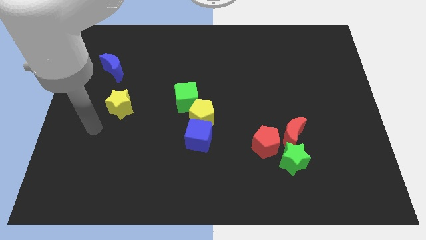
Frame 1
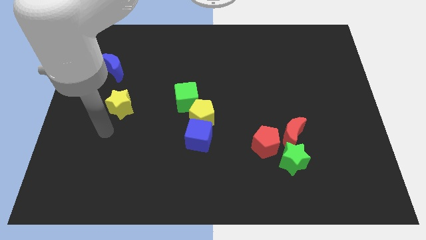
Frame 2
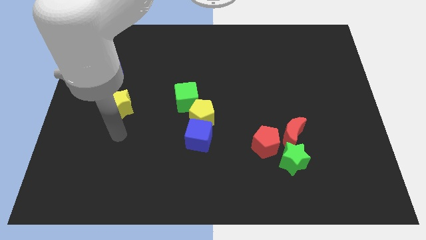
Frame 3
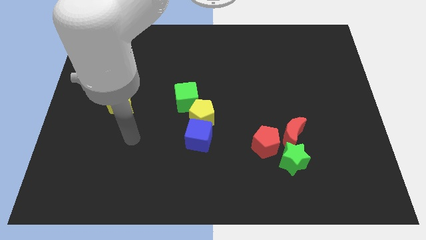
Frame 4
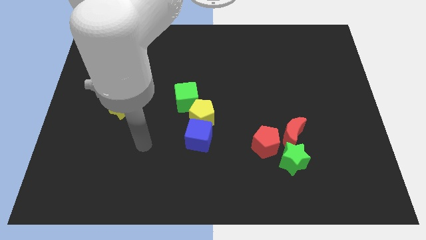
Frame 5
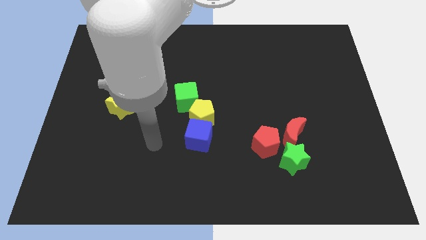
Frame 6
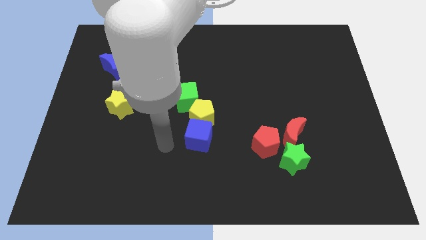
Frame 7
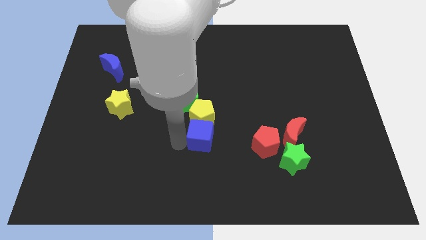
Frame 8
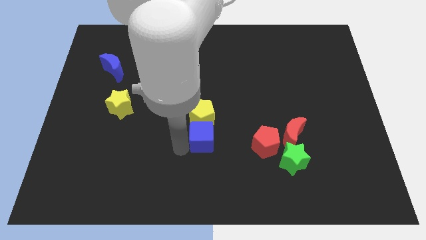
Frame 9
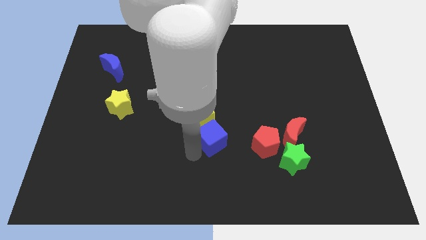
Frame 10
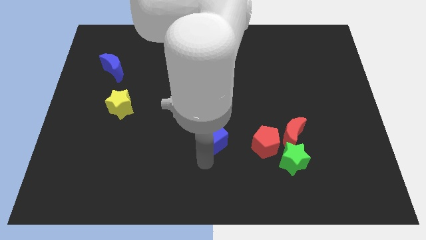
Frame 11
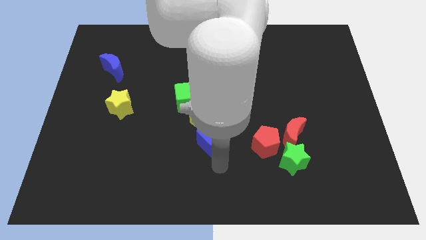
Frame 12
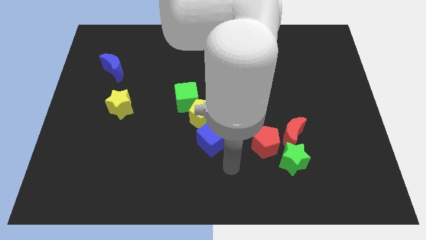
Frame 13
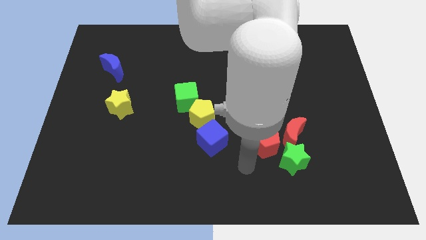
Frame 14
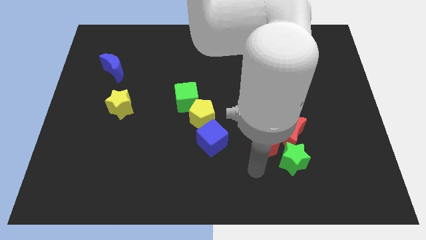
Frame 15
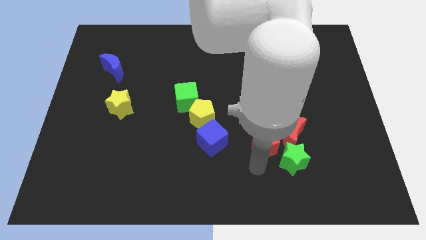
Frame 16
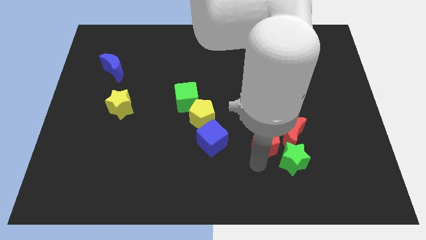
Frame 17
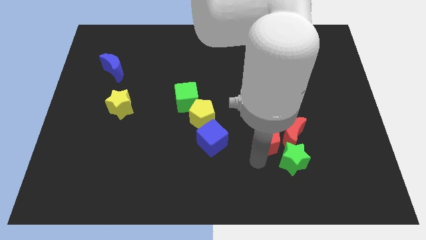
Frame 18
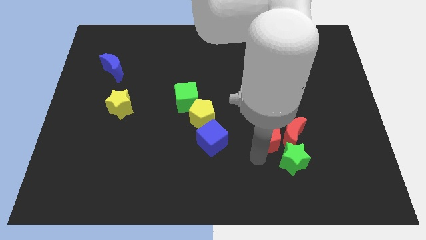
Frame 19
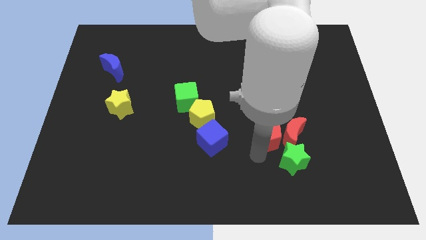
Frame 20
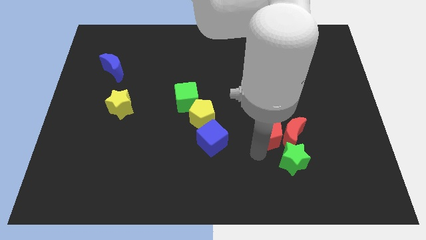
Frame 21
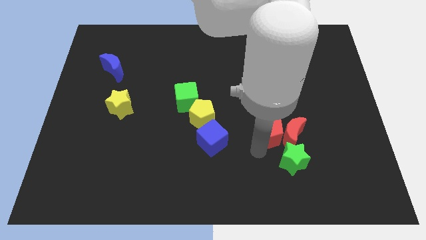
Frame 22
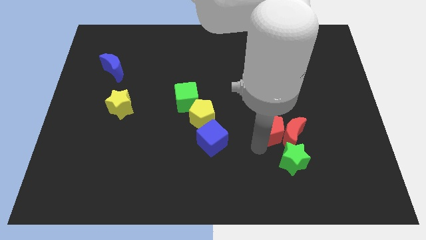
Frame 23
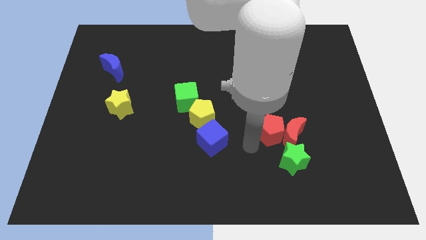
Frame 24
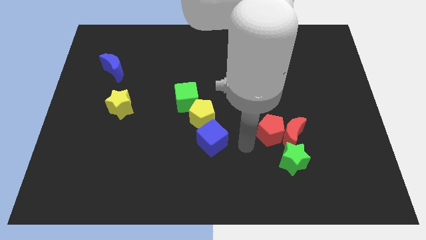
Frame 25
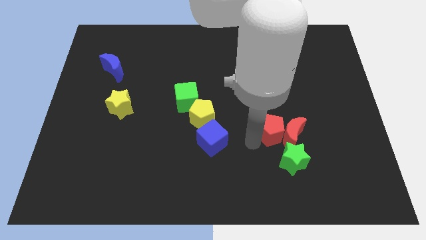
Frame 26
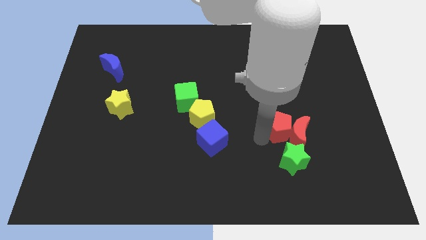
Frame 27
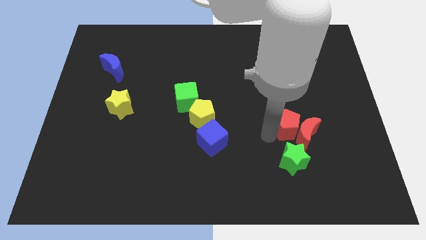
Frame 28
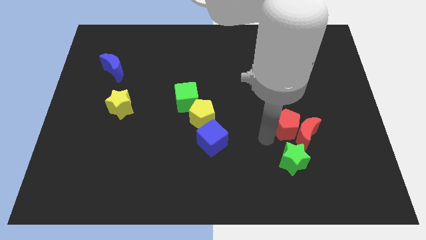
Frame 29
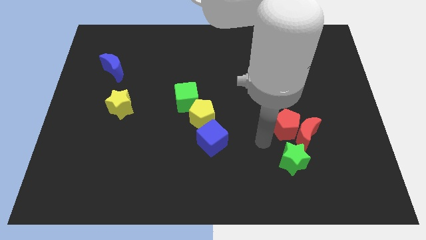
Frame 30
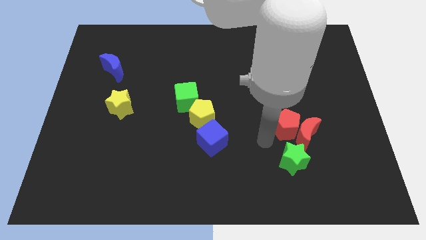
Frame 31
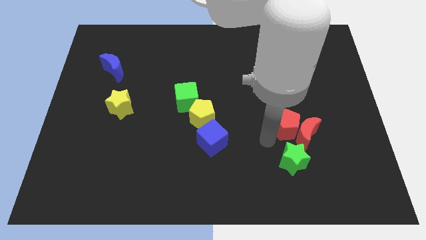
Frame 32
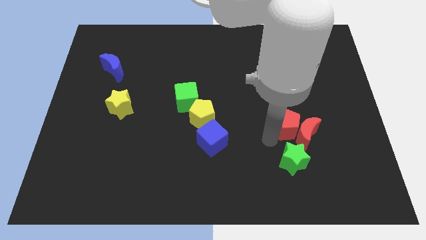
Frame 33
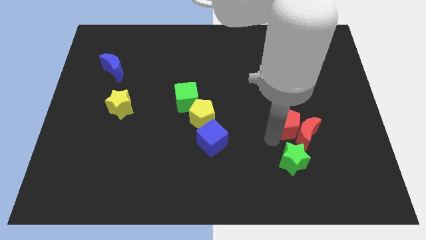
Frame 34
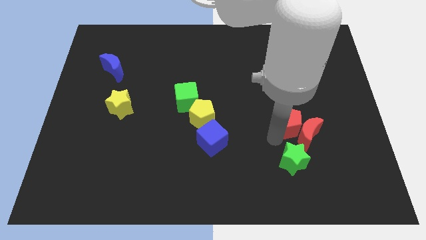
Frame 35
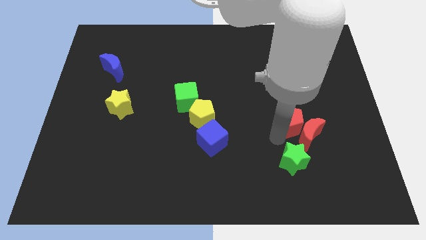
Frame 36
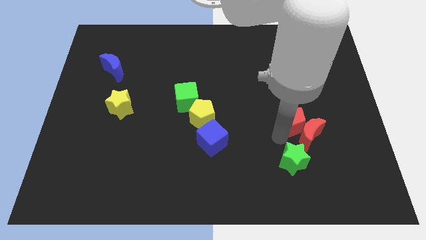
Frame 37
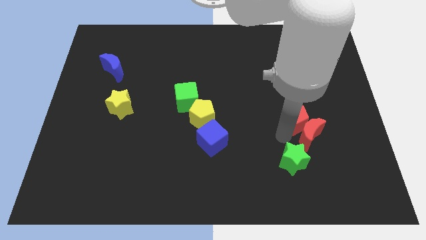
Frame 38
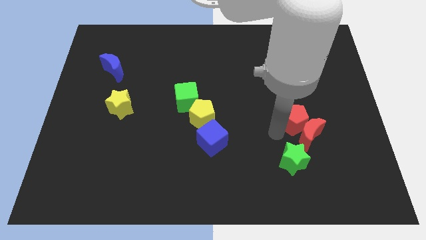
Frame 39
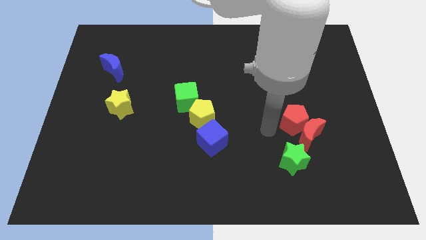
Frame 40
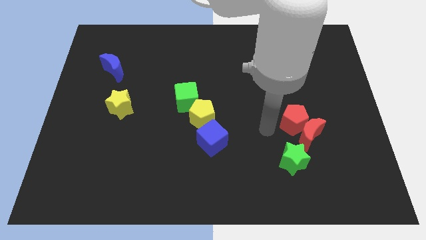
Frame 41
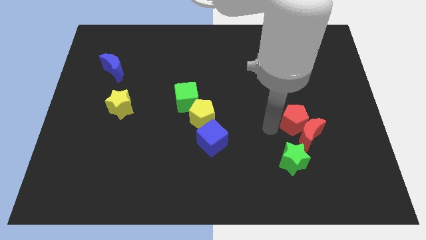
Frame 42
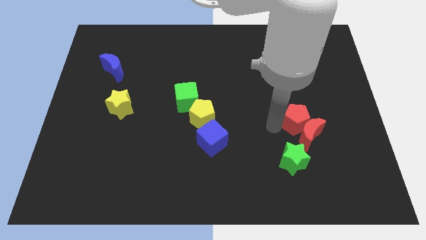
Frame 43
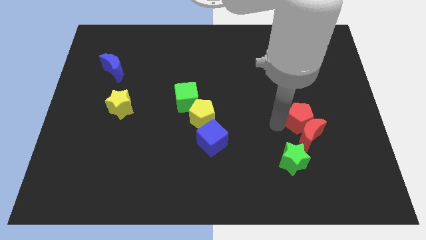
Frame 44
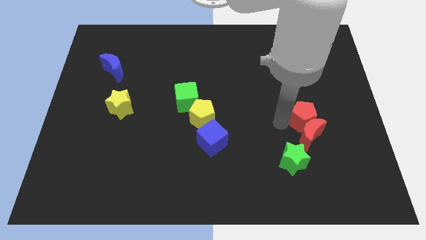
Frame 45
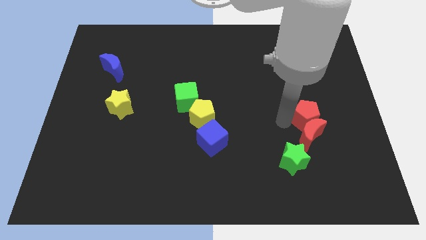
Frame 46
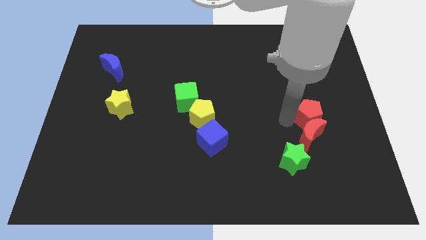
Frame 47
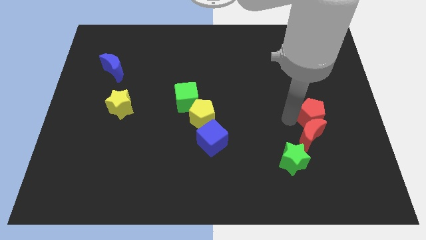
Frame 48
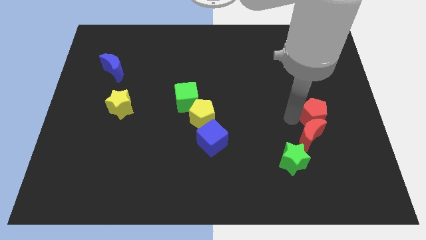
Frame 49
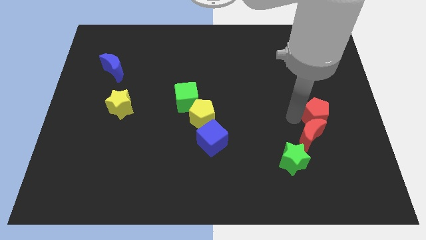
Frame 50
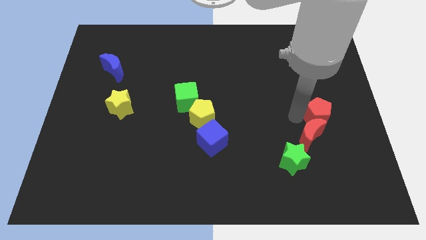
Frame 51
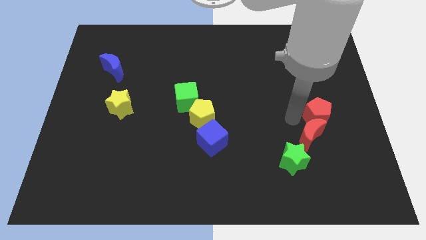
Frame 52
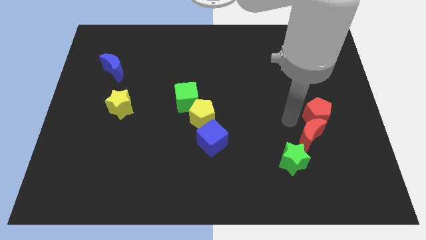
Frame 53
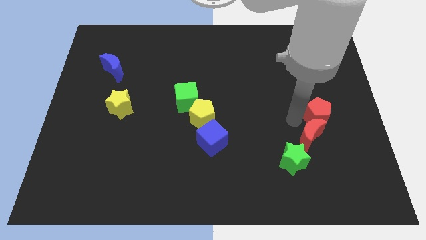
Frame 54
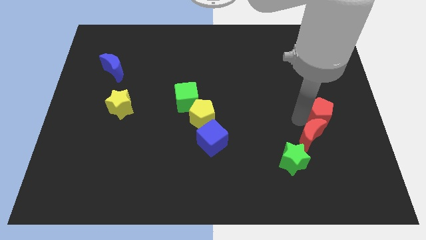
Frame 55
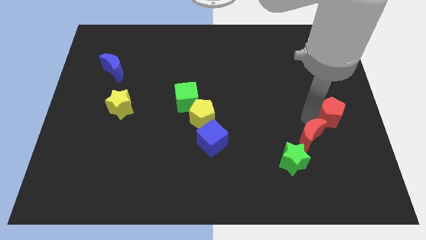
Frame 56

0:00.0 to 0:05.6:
move the red pentagon to the right side of the board

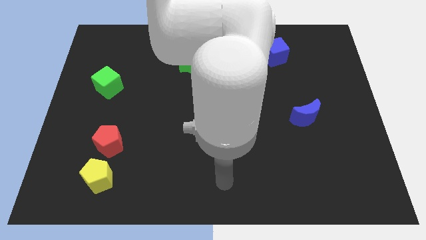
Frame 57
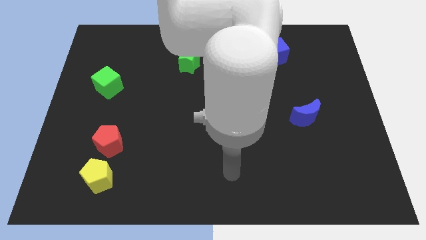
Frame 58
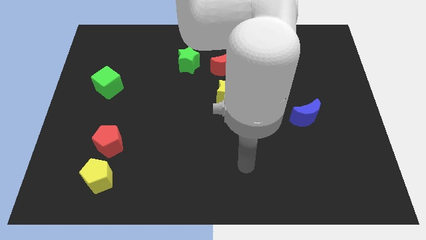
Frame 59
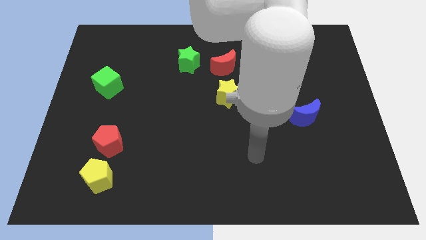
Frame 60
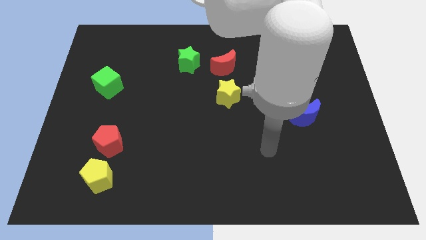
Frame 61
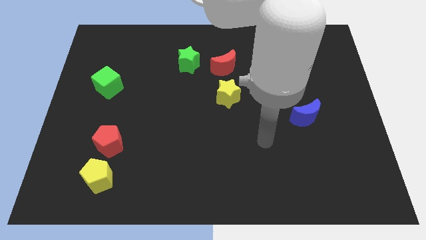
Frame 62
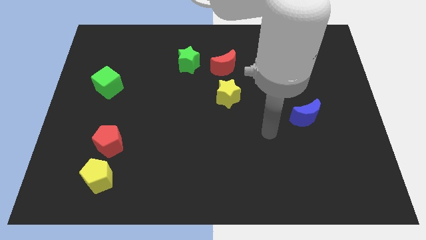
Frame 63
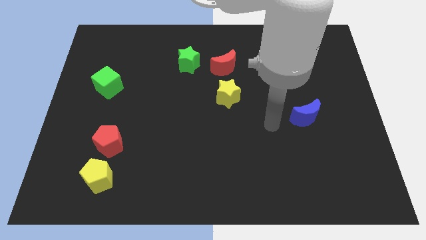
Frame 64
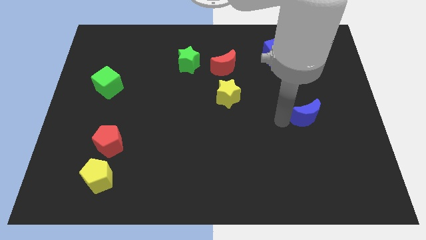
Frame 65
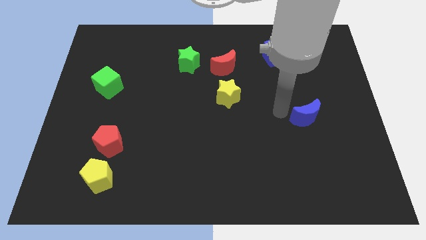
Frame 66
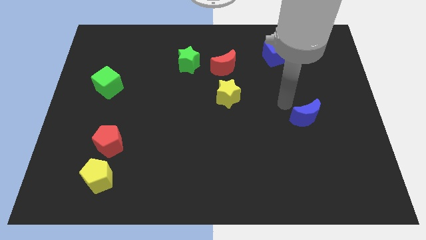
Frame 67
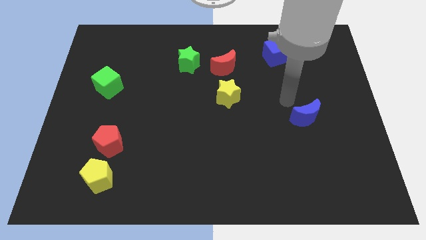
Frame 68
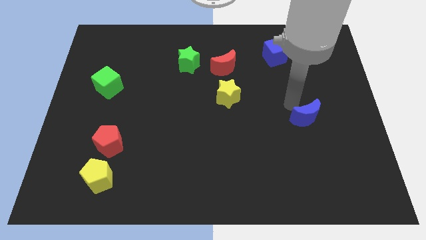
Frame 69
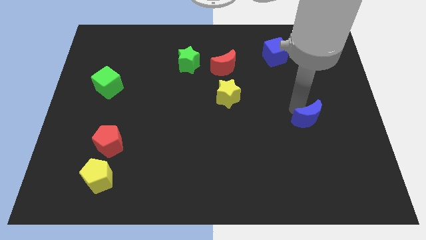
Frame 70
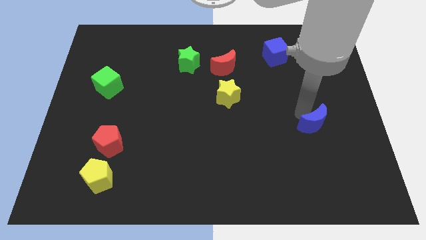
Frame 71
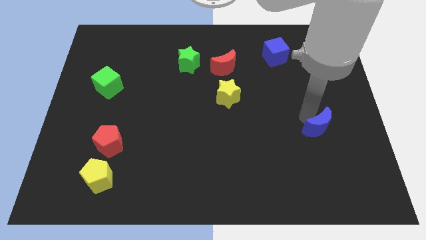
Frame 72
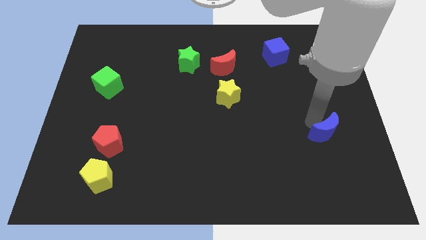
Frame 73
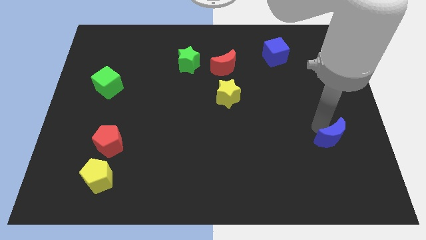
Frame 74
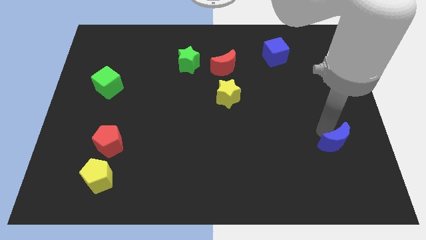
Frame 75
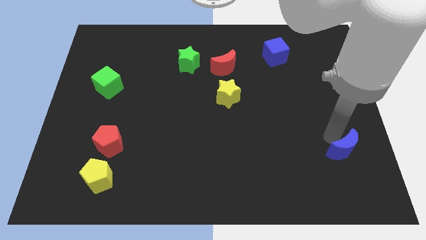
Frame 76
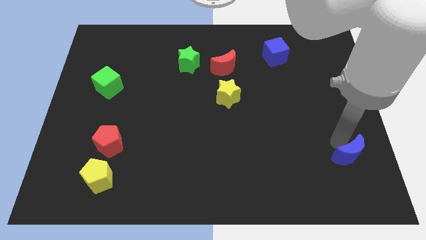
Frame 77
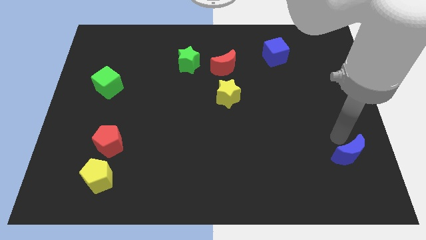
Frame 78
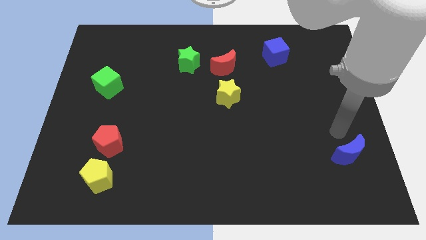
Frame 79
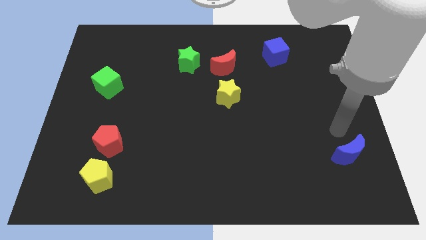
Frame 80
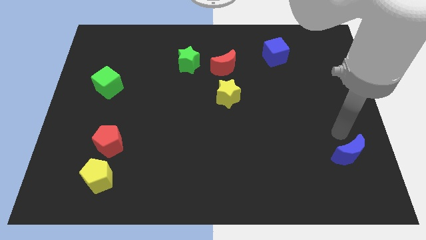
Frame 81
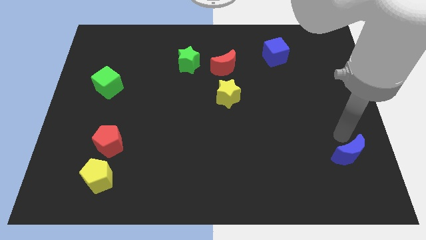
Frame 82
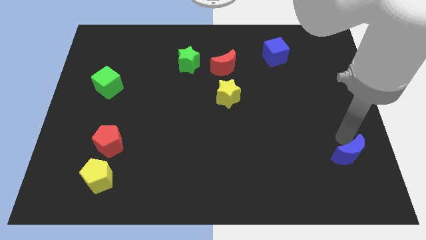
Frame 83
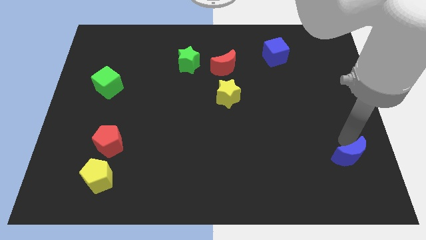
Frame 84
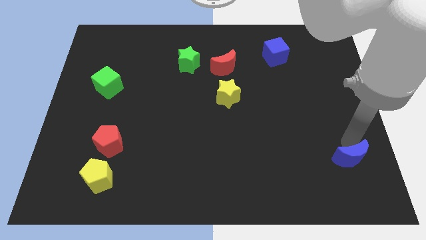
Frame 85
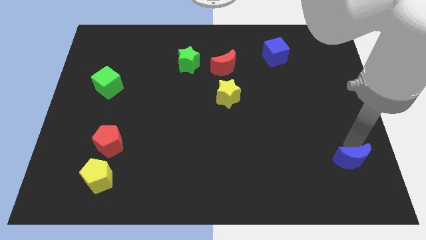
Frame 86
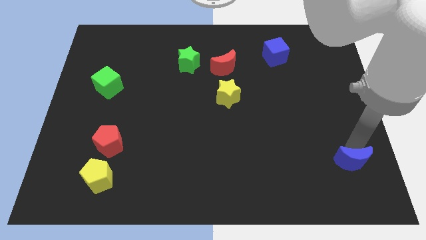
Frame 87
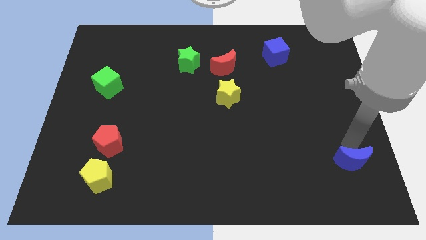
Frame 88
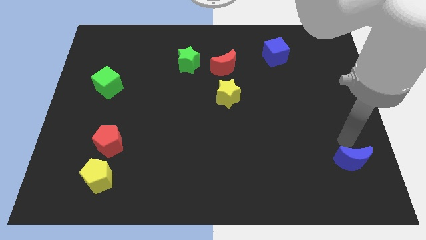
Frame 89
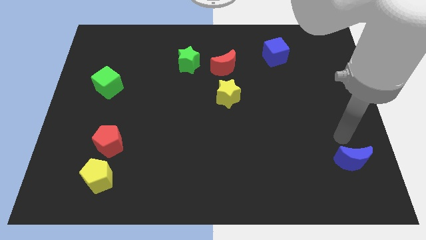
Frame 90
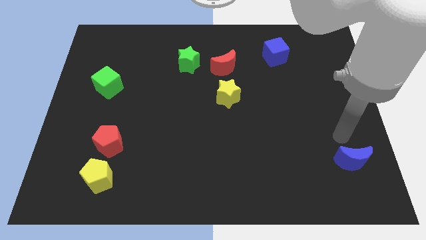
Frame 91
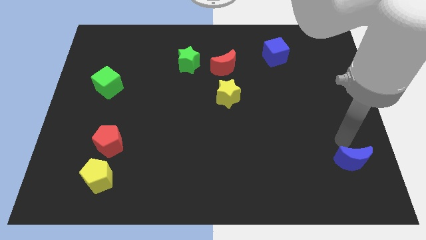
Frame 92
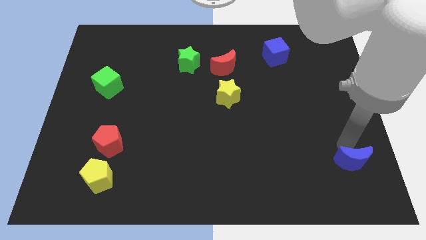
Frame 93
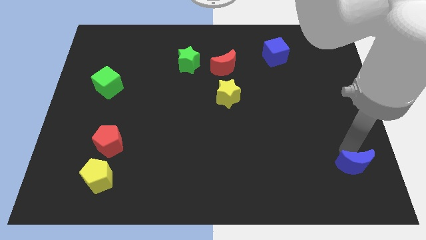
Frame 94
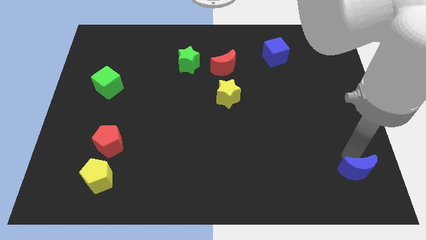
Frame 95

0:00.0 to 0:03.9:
put the blue moon to the lower right corner
